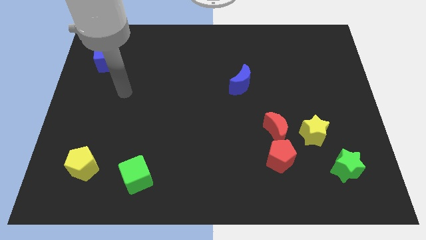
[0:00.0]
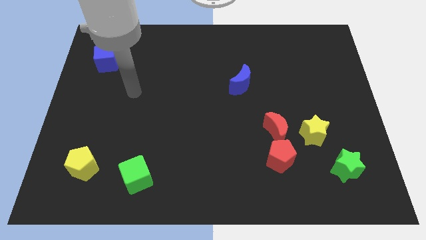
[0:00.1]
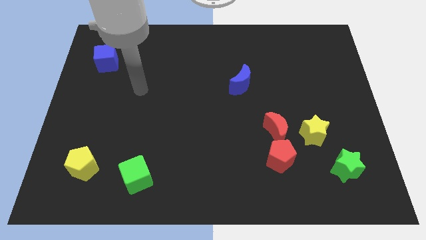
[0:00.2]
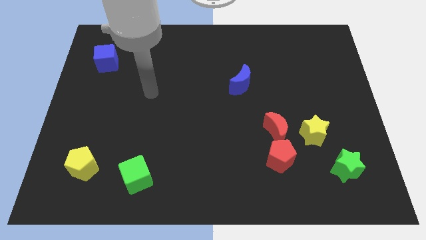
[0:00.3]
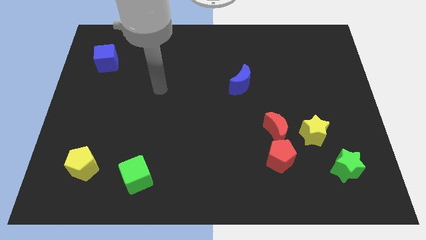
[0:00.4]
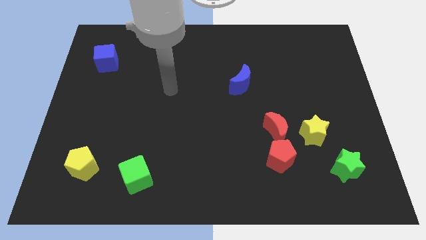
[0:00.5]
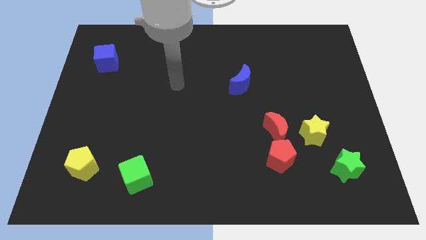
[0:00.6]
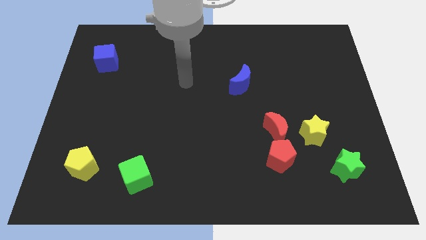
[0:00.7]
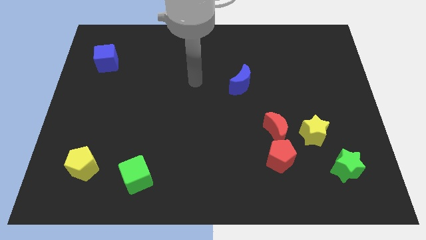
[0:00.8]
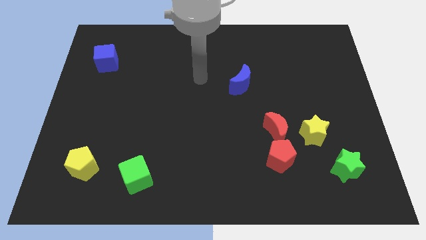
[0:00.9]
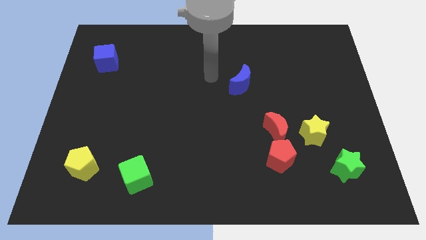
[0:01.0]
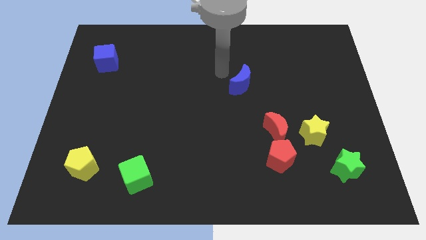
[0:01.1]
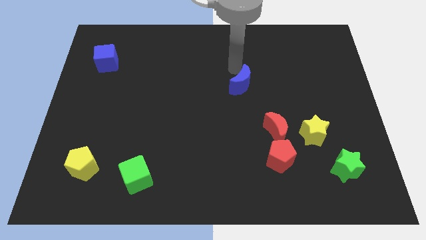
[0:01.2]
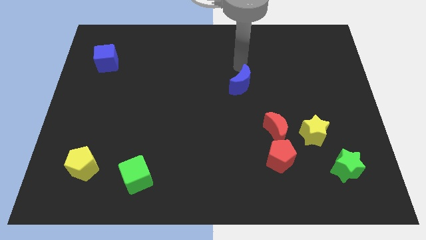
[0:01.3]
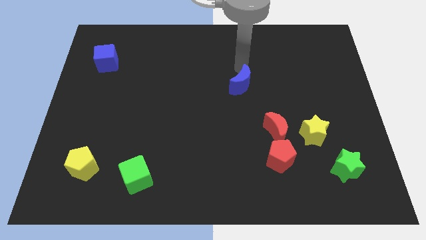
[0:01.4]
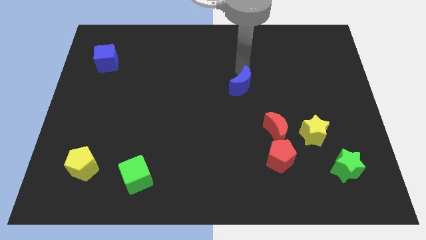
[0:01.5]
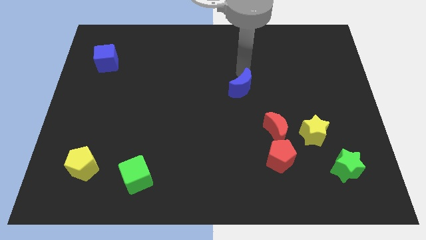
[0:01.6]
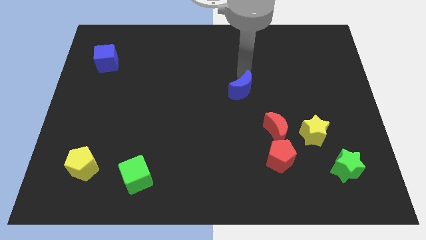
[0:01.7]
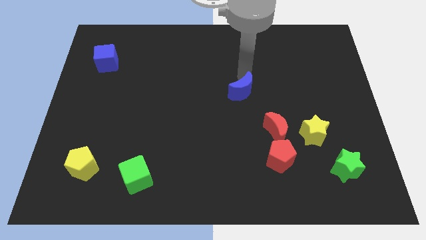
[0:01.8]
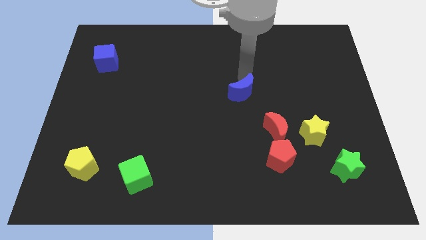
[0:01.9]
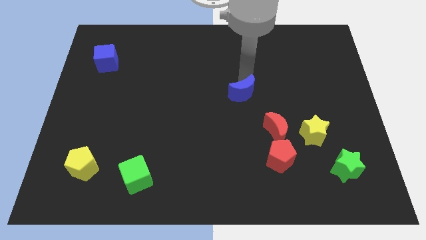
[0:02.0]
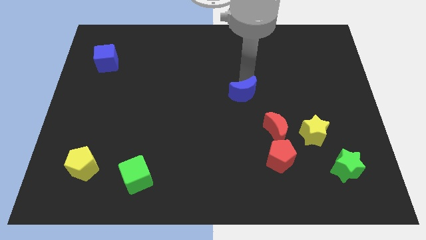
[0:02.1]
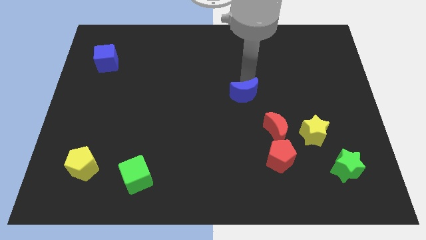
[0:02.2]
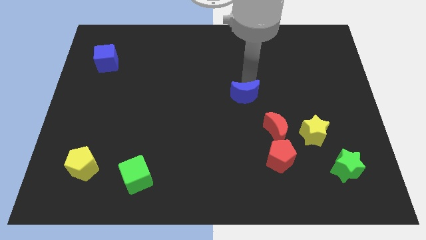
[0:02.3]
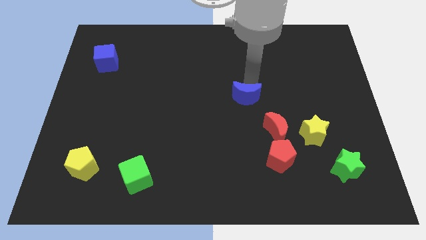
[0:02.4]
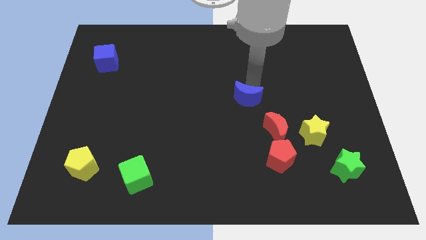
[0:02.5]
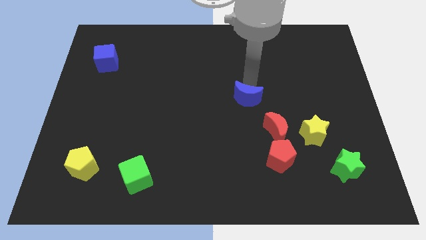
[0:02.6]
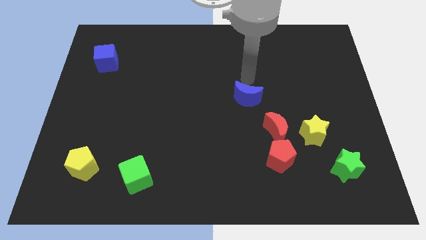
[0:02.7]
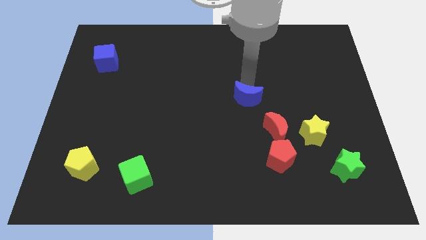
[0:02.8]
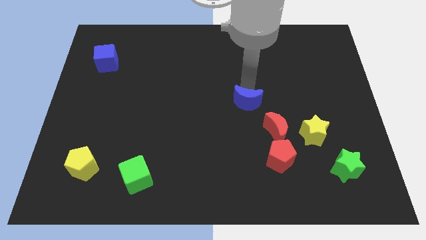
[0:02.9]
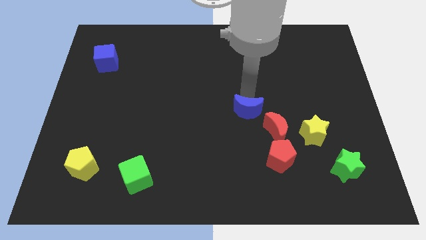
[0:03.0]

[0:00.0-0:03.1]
move the blue moon a bit downwards

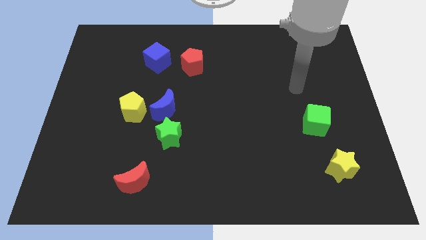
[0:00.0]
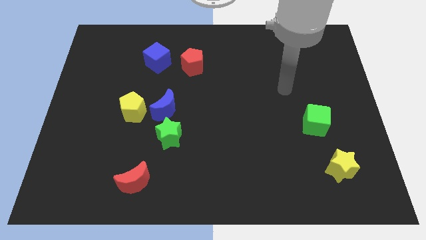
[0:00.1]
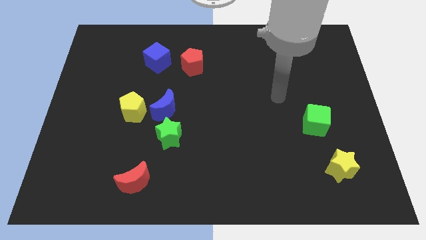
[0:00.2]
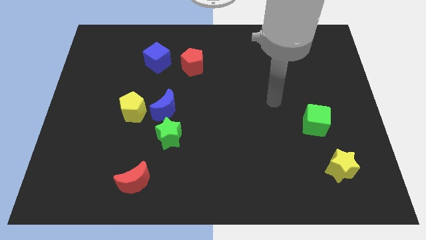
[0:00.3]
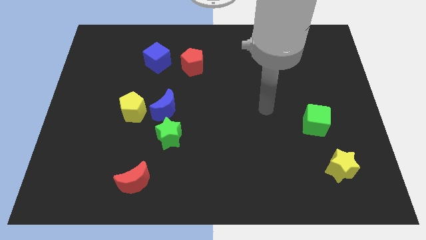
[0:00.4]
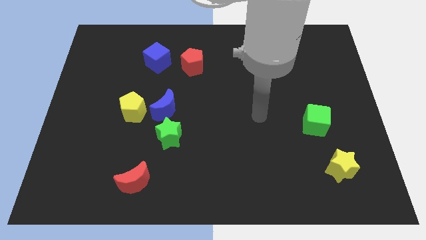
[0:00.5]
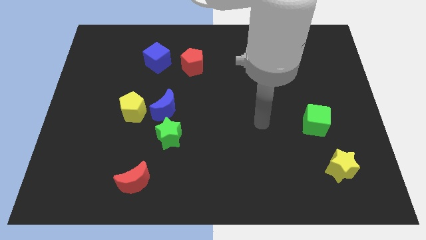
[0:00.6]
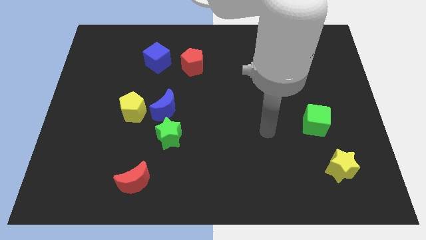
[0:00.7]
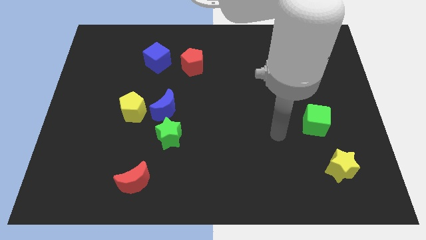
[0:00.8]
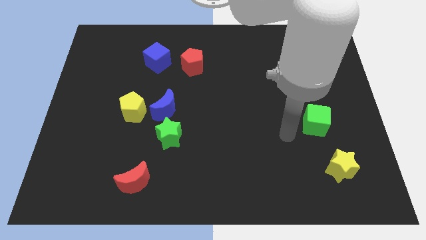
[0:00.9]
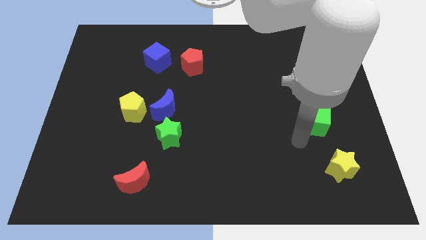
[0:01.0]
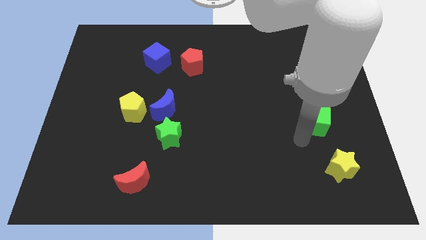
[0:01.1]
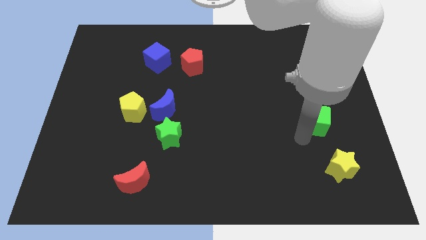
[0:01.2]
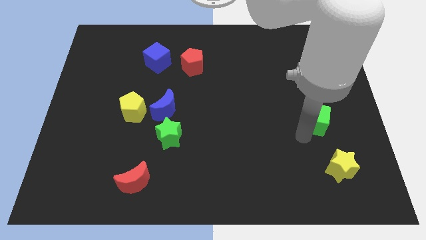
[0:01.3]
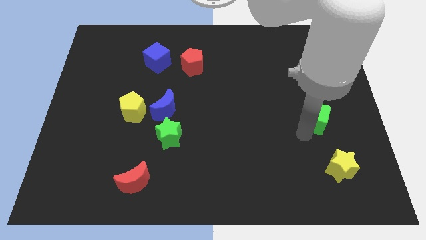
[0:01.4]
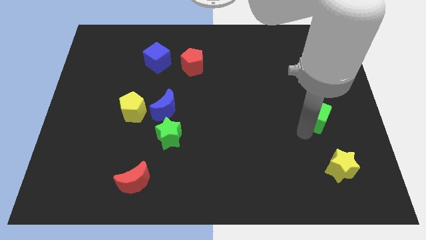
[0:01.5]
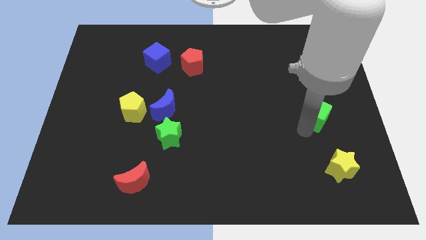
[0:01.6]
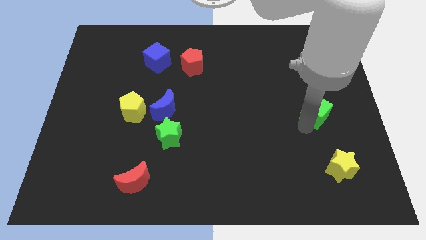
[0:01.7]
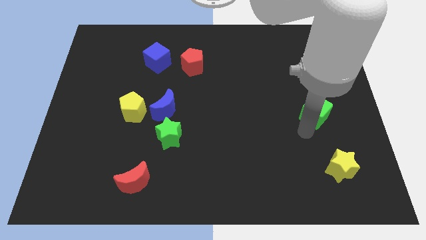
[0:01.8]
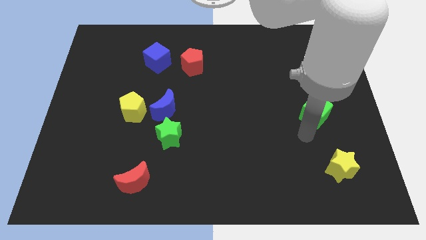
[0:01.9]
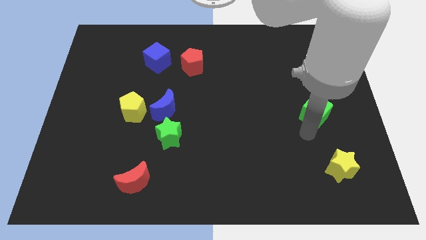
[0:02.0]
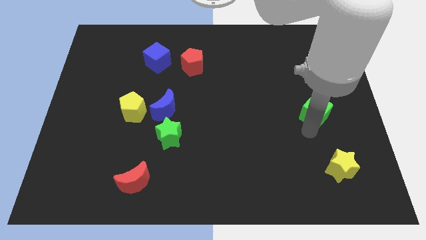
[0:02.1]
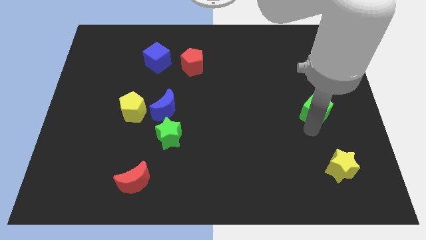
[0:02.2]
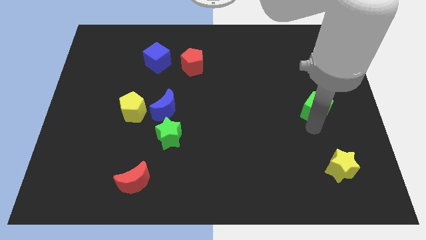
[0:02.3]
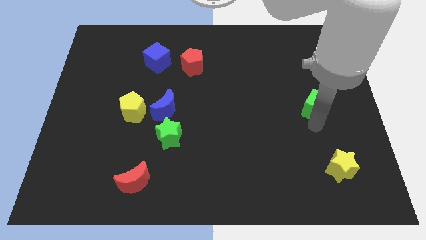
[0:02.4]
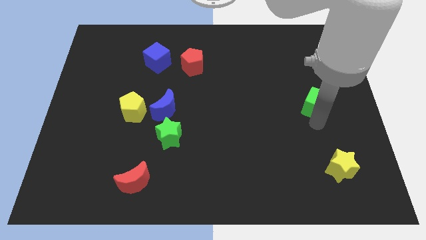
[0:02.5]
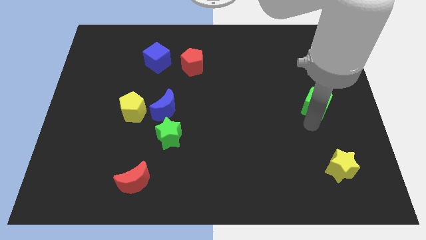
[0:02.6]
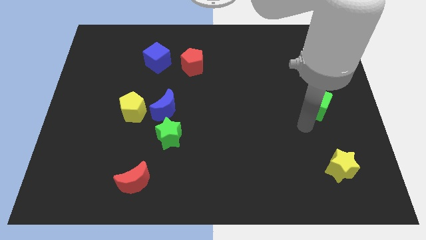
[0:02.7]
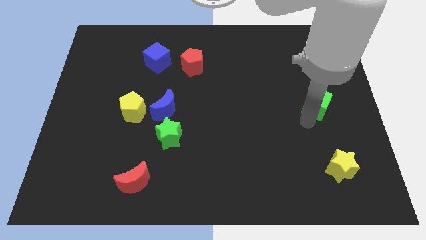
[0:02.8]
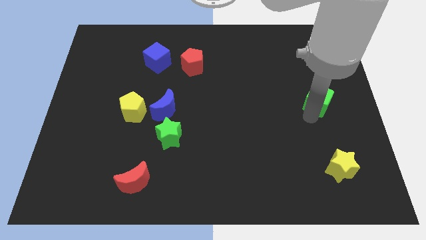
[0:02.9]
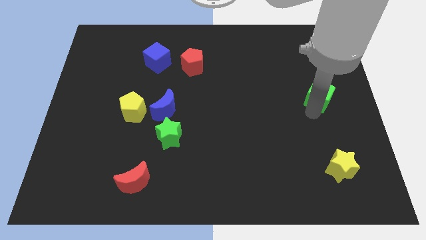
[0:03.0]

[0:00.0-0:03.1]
move the green cube upwards a little

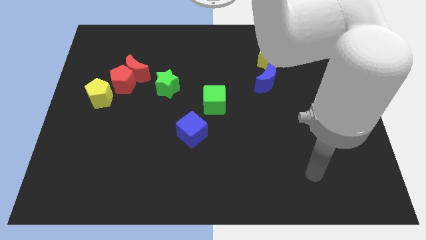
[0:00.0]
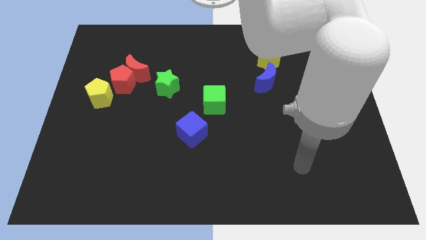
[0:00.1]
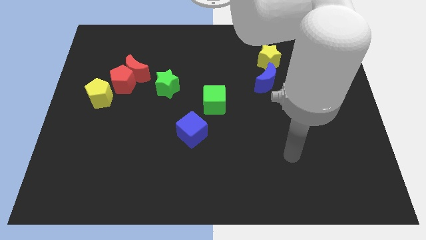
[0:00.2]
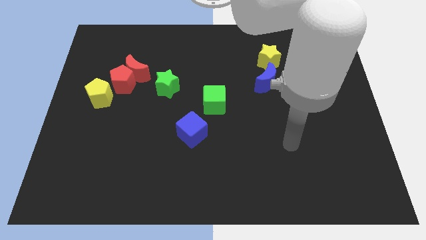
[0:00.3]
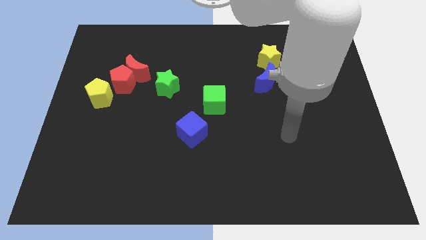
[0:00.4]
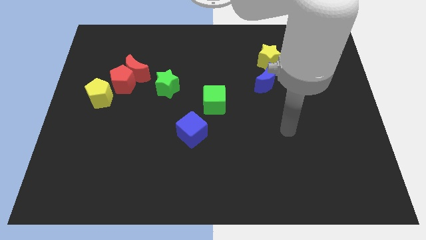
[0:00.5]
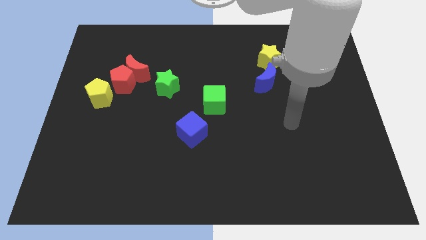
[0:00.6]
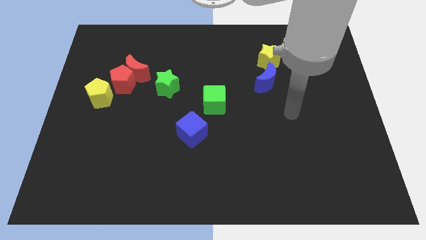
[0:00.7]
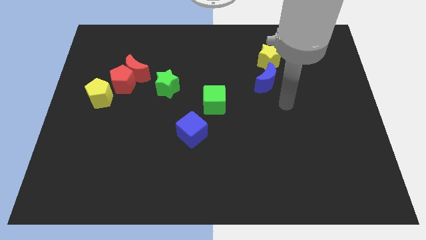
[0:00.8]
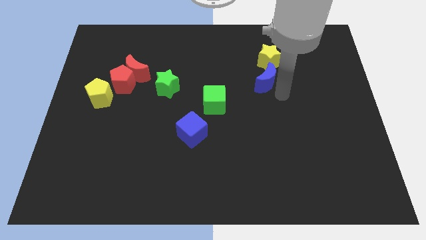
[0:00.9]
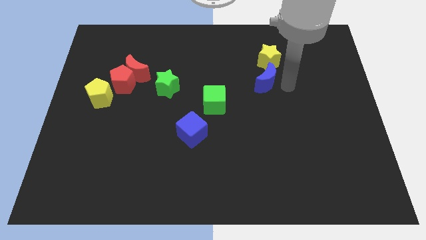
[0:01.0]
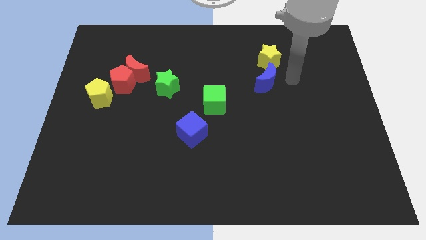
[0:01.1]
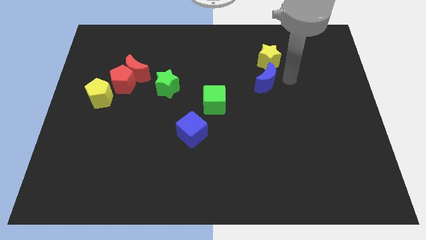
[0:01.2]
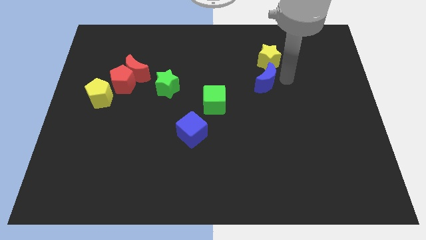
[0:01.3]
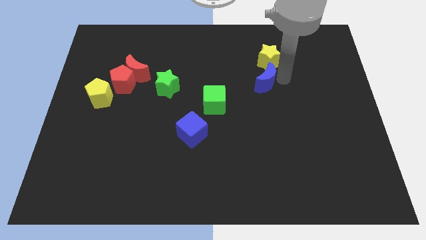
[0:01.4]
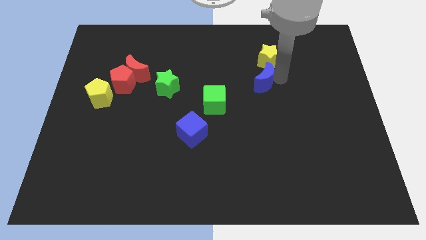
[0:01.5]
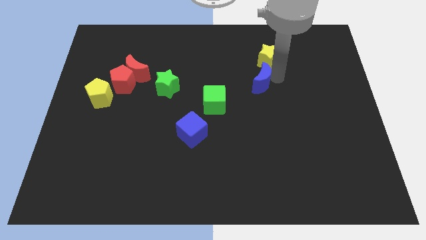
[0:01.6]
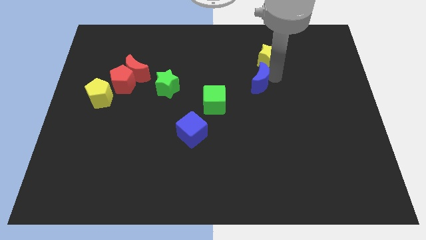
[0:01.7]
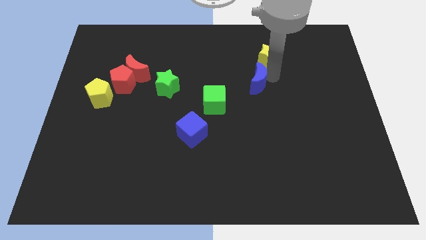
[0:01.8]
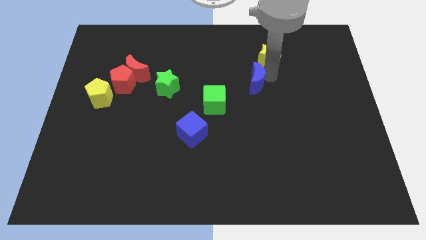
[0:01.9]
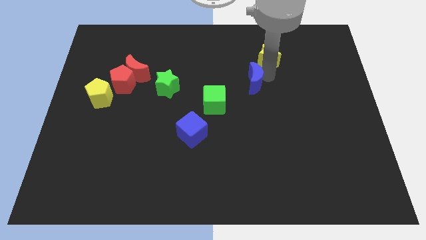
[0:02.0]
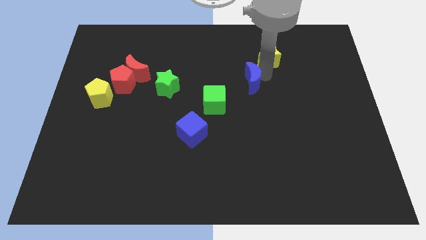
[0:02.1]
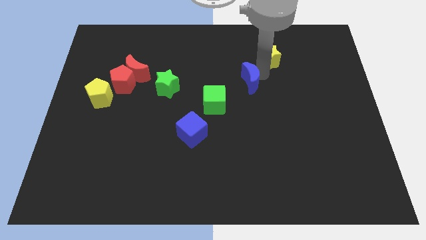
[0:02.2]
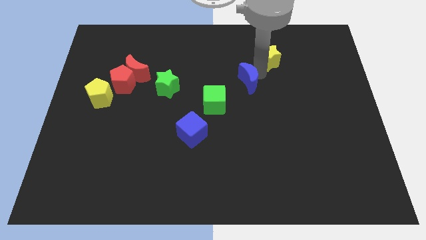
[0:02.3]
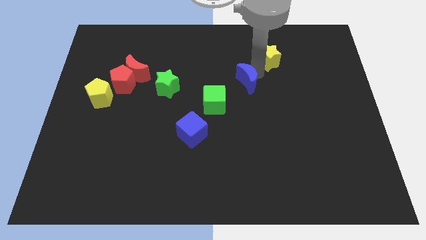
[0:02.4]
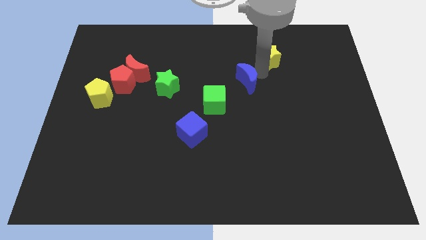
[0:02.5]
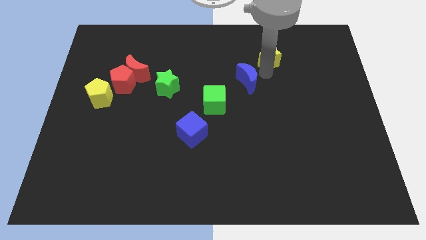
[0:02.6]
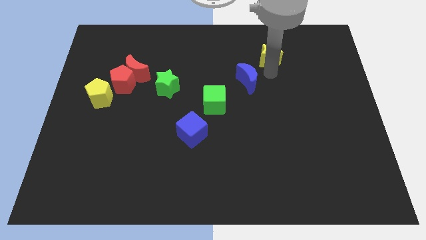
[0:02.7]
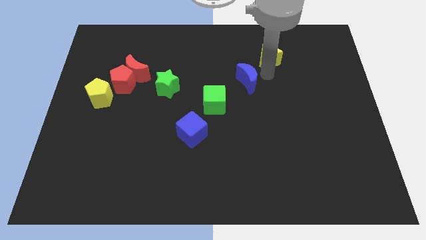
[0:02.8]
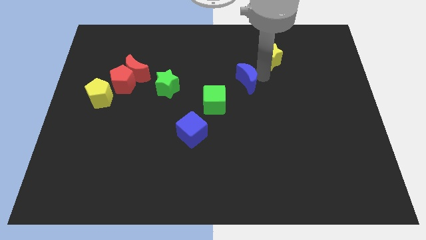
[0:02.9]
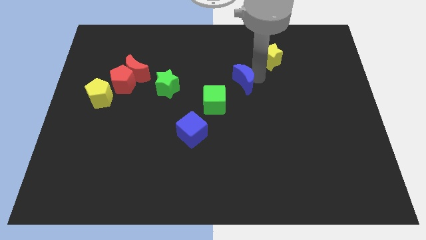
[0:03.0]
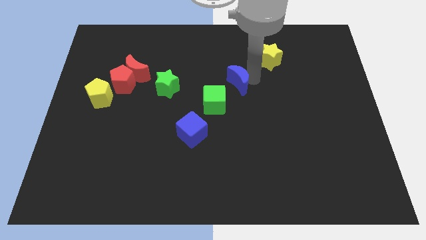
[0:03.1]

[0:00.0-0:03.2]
move the blue moon to the left a little
